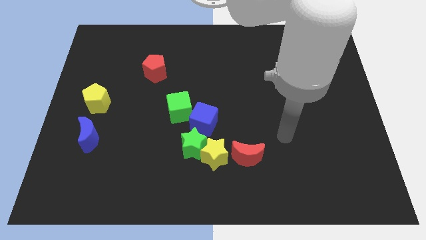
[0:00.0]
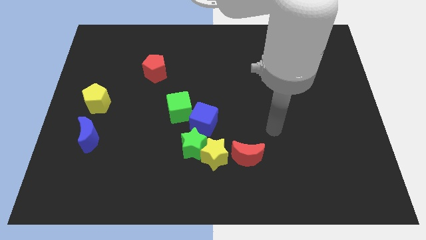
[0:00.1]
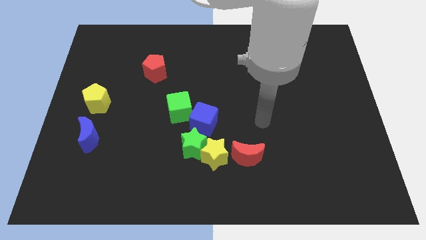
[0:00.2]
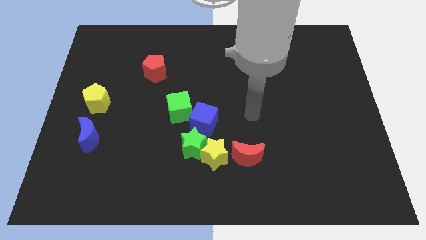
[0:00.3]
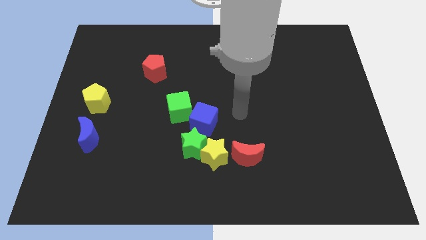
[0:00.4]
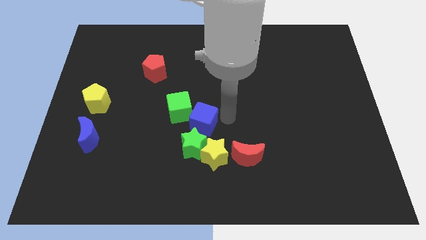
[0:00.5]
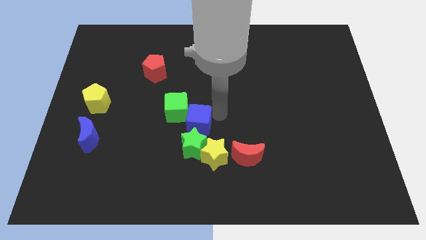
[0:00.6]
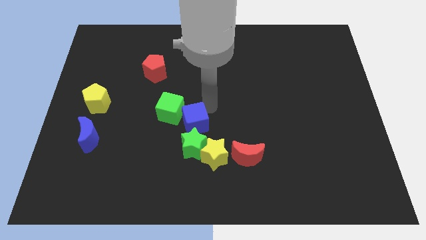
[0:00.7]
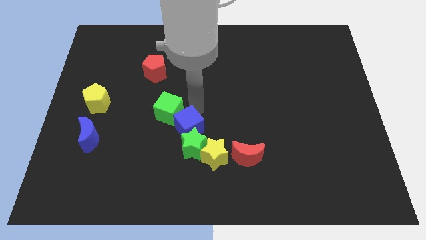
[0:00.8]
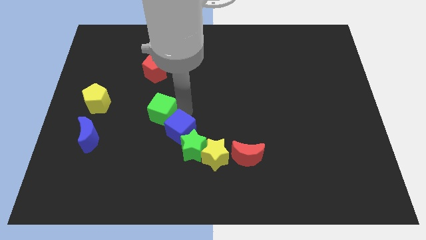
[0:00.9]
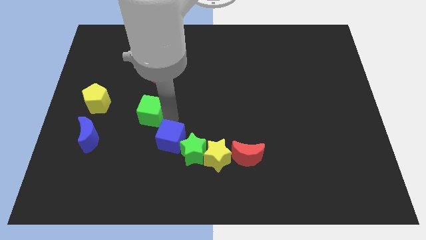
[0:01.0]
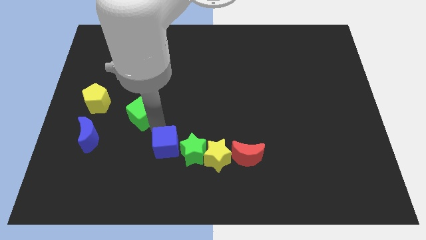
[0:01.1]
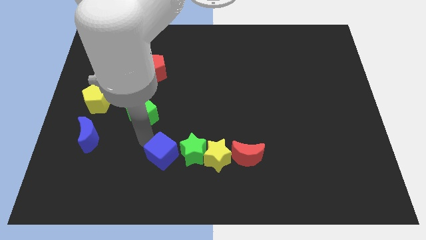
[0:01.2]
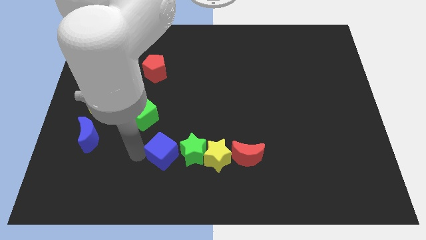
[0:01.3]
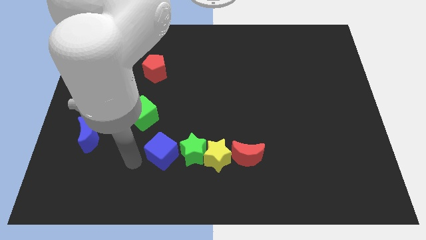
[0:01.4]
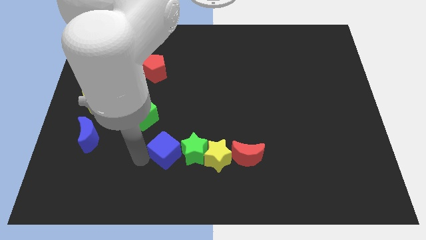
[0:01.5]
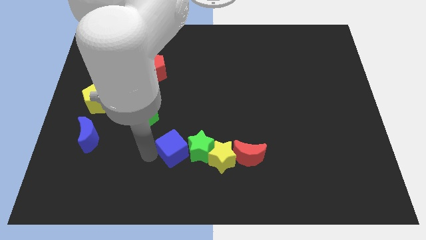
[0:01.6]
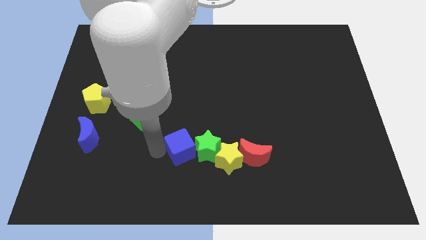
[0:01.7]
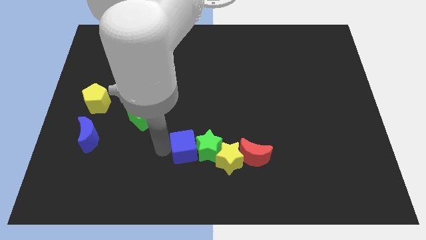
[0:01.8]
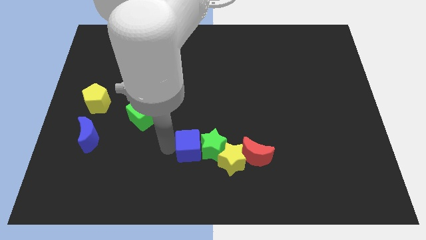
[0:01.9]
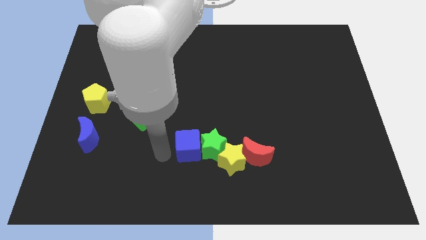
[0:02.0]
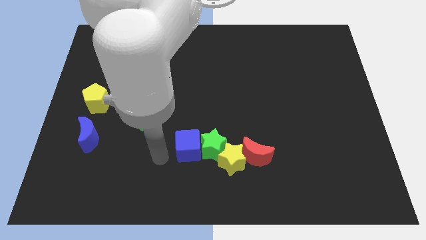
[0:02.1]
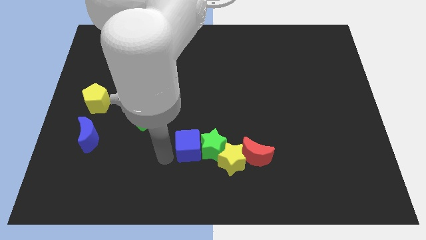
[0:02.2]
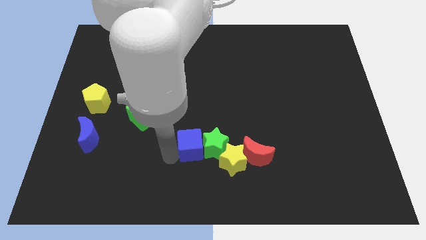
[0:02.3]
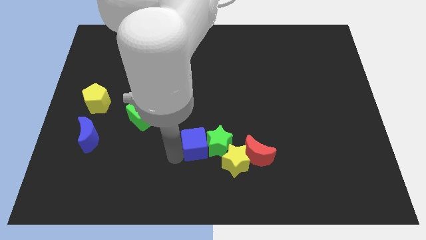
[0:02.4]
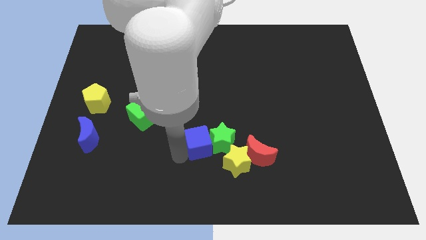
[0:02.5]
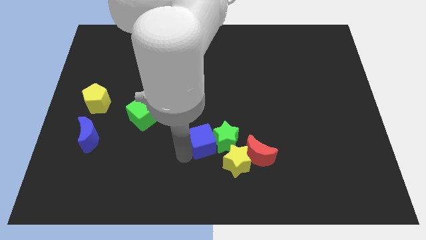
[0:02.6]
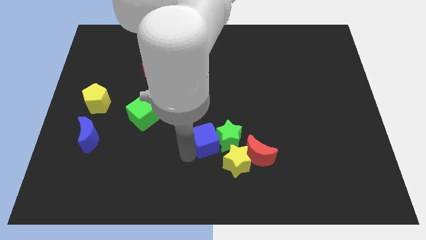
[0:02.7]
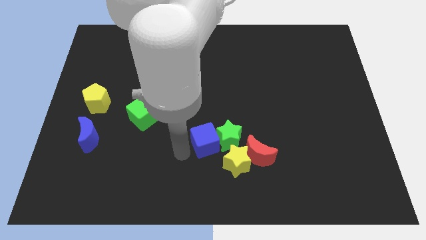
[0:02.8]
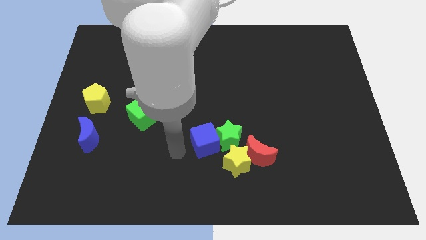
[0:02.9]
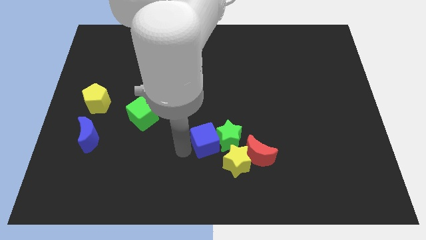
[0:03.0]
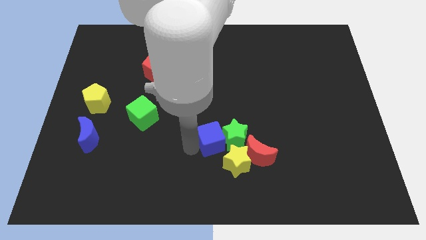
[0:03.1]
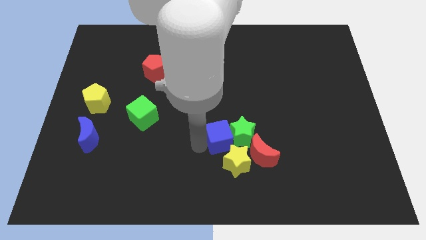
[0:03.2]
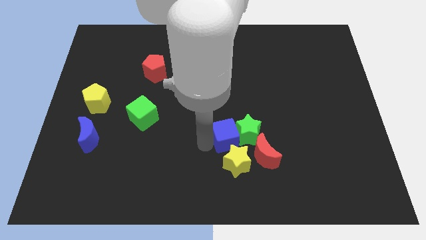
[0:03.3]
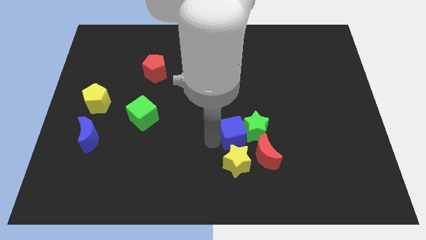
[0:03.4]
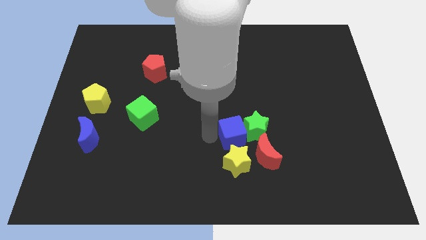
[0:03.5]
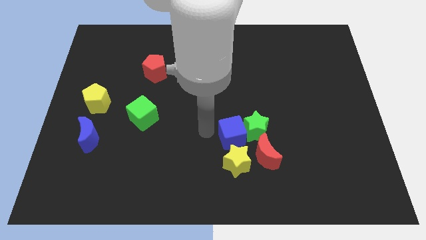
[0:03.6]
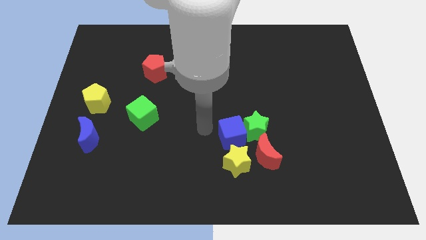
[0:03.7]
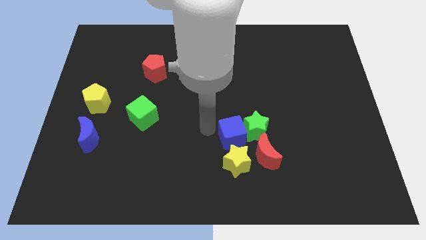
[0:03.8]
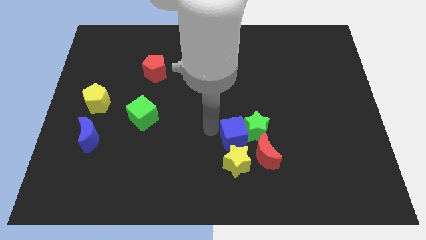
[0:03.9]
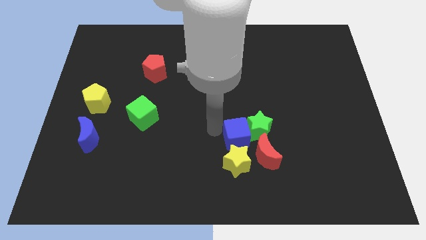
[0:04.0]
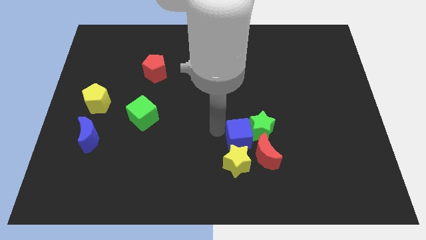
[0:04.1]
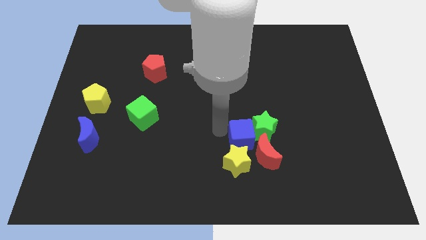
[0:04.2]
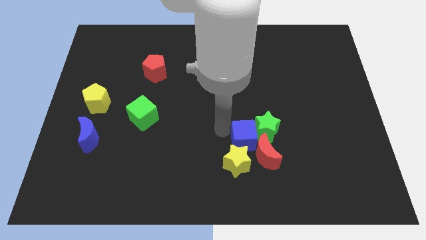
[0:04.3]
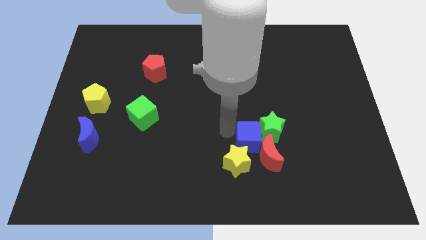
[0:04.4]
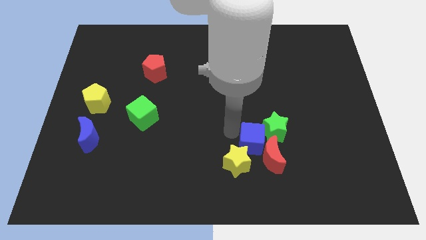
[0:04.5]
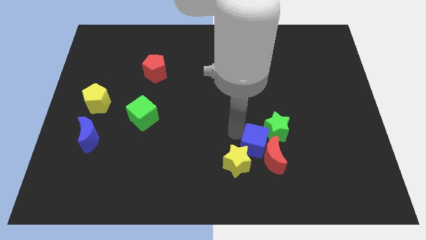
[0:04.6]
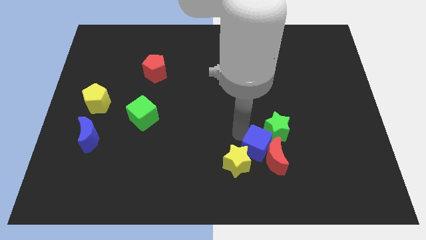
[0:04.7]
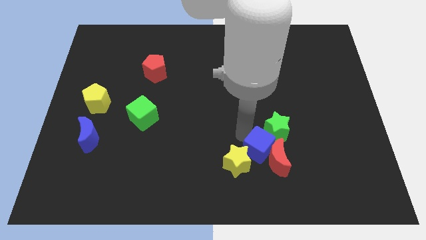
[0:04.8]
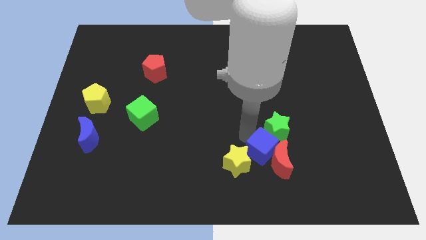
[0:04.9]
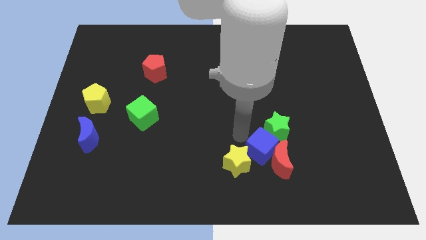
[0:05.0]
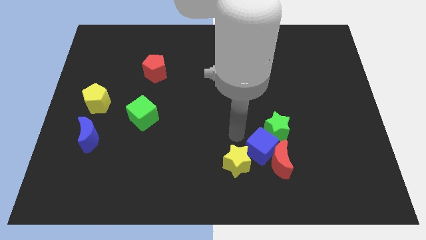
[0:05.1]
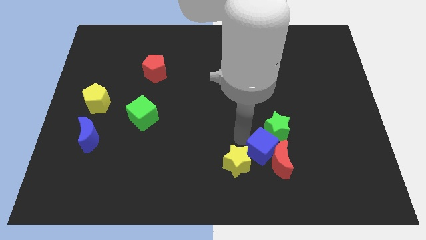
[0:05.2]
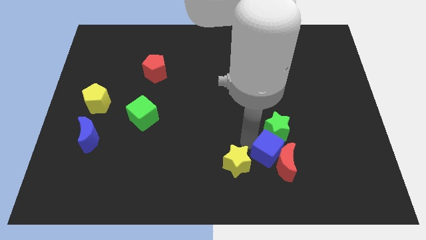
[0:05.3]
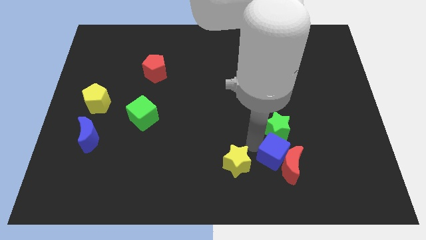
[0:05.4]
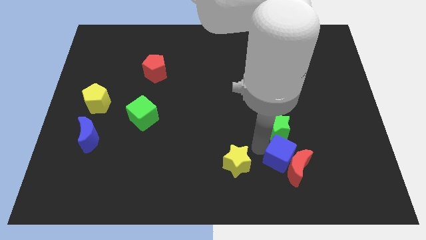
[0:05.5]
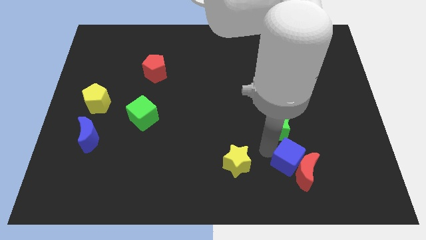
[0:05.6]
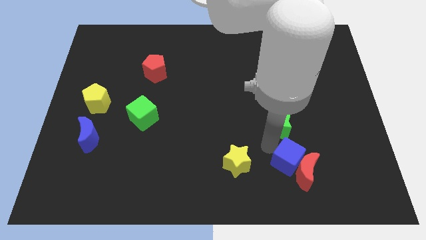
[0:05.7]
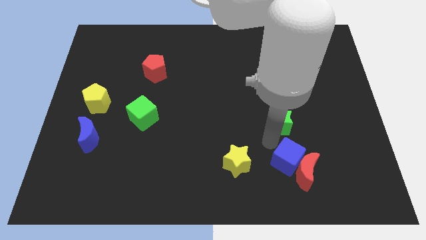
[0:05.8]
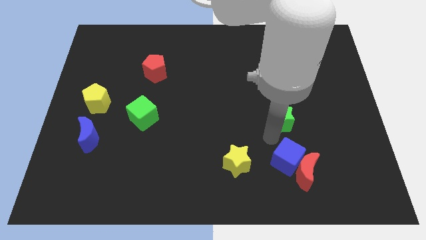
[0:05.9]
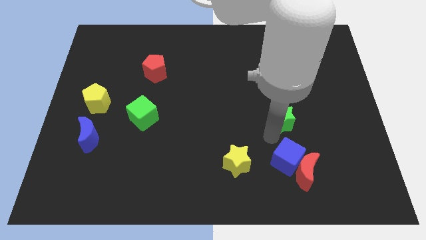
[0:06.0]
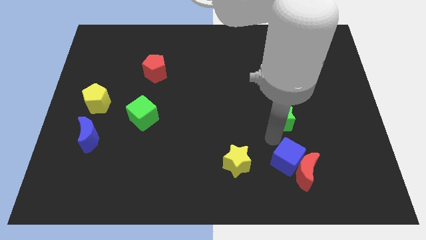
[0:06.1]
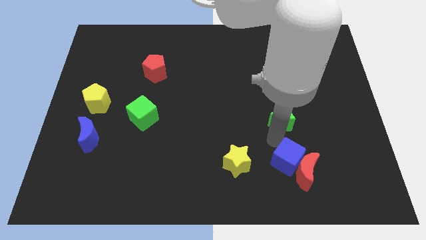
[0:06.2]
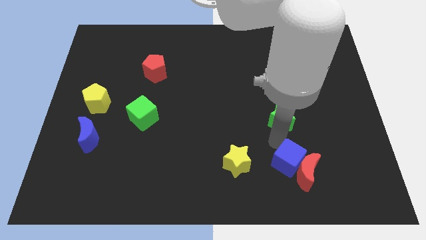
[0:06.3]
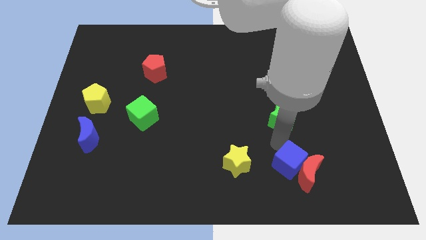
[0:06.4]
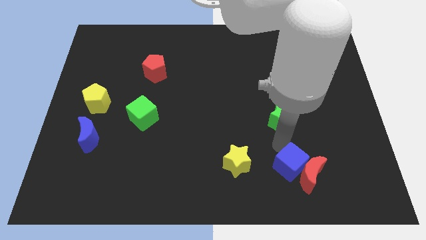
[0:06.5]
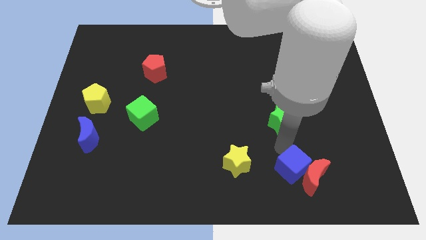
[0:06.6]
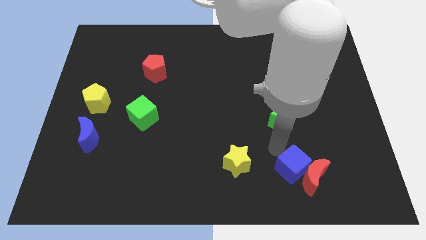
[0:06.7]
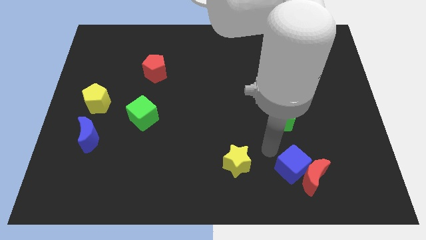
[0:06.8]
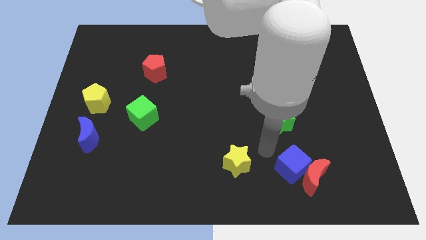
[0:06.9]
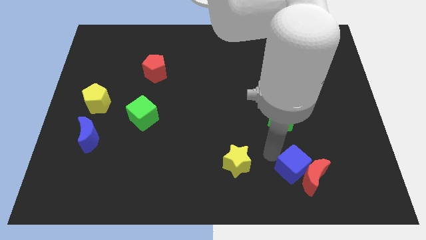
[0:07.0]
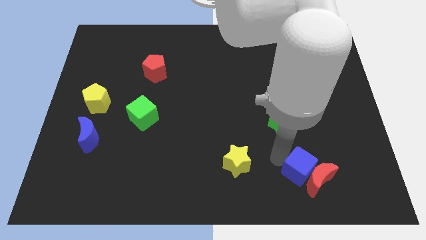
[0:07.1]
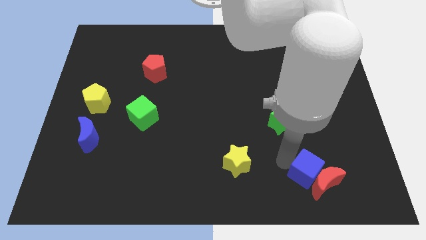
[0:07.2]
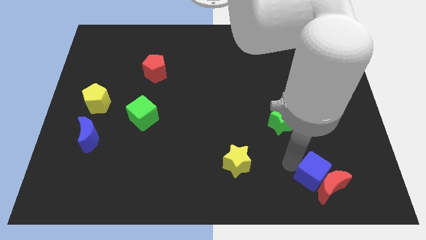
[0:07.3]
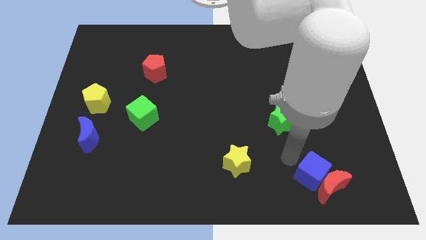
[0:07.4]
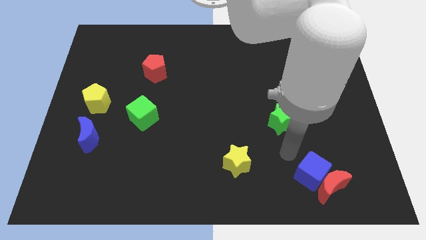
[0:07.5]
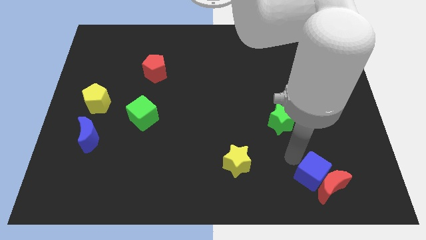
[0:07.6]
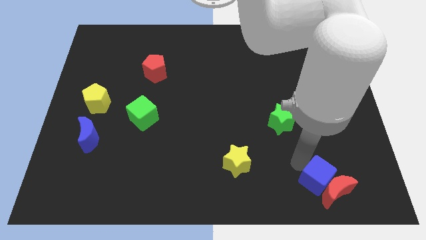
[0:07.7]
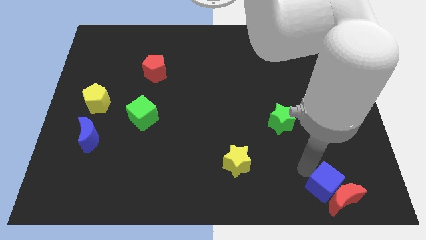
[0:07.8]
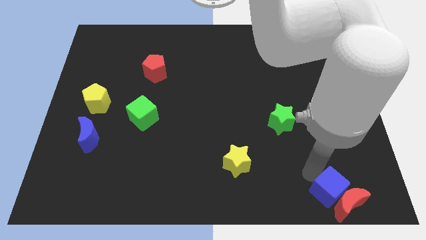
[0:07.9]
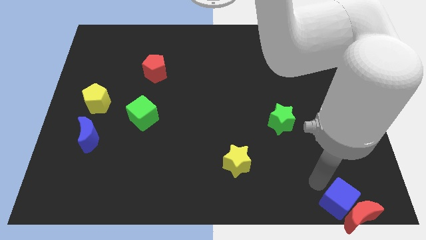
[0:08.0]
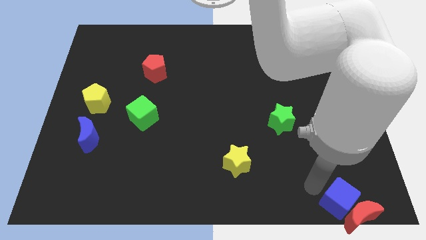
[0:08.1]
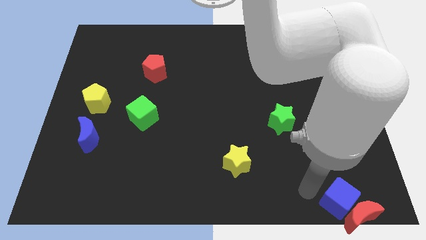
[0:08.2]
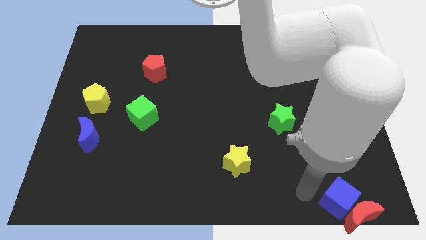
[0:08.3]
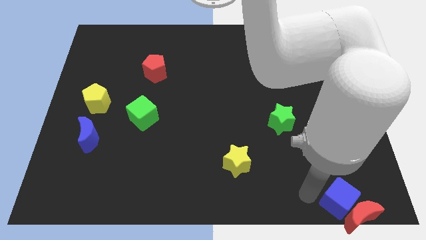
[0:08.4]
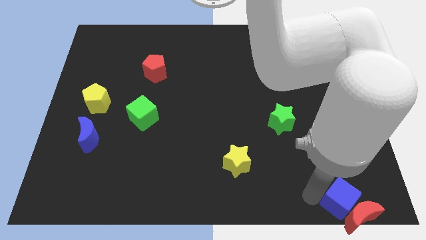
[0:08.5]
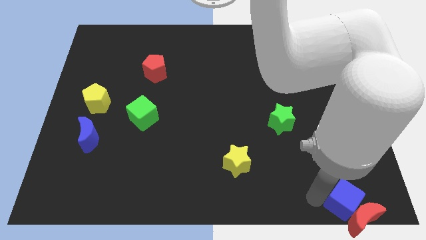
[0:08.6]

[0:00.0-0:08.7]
slide the blue cube to the lower right corner
